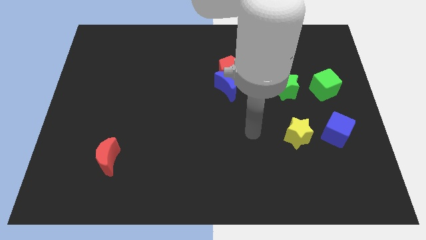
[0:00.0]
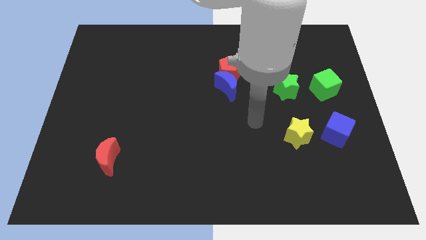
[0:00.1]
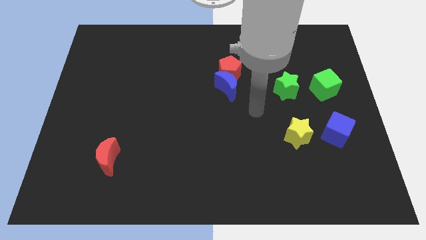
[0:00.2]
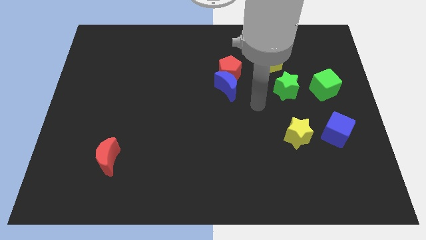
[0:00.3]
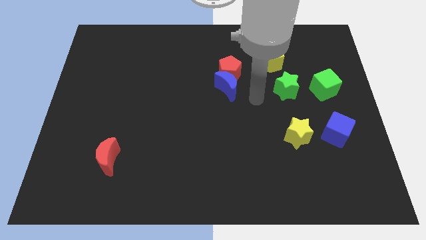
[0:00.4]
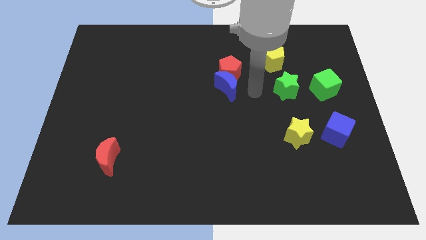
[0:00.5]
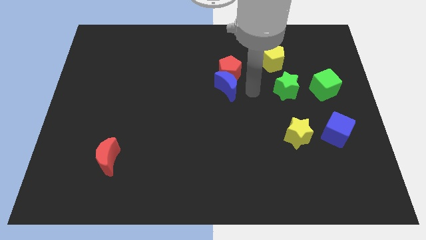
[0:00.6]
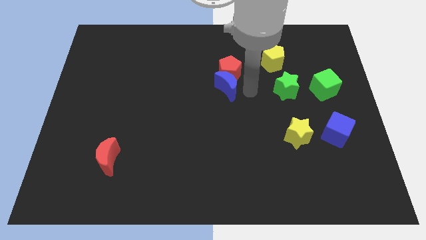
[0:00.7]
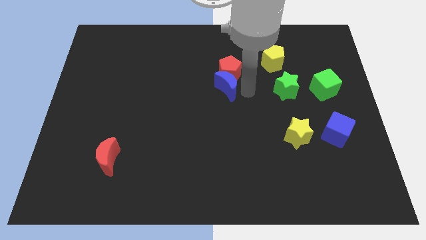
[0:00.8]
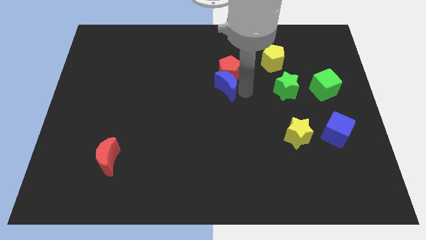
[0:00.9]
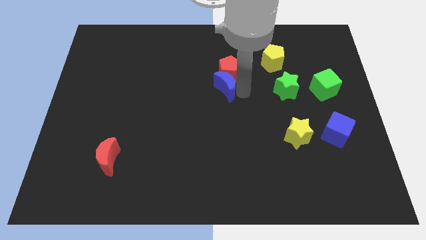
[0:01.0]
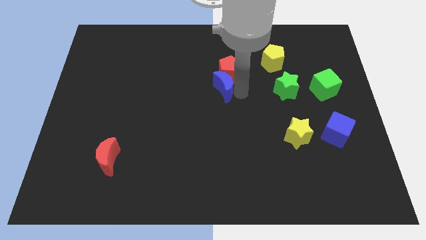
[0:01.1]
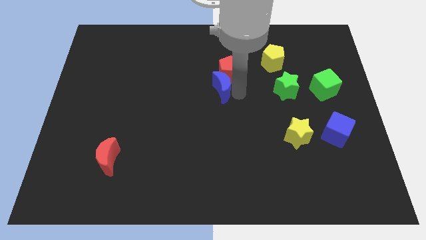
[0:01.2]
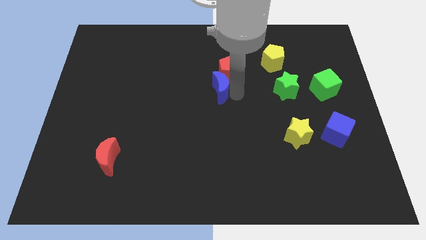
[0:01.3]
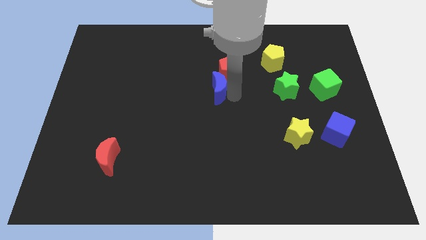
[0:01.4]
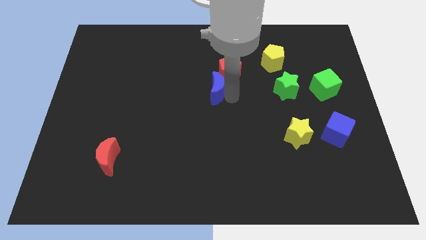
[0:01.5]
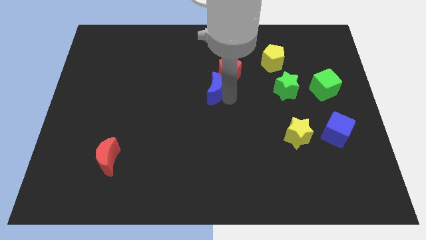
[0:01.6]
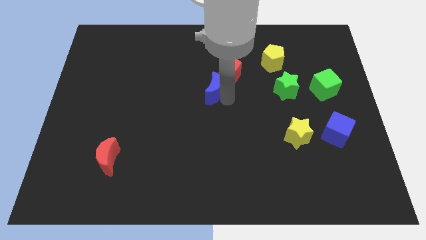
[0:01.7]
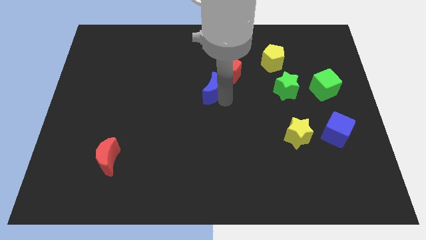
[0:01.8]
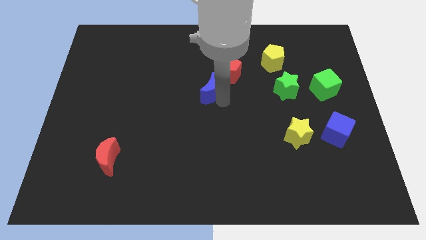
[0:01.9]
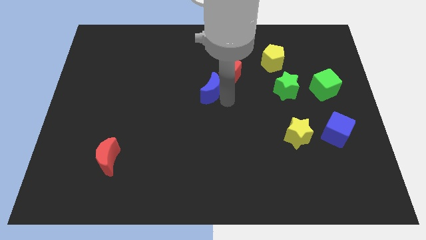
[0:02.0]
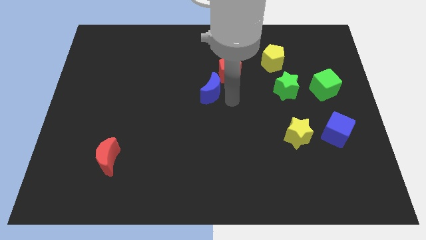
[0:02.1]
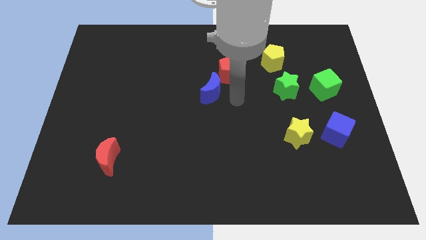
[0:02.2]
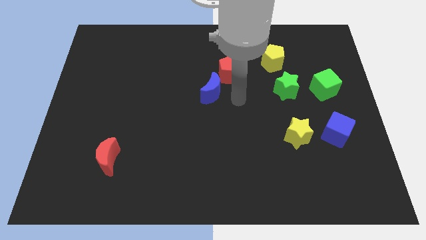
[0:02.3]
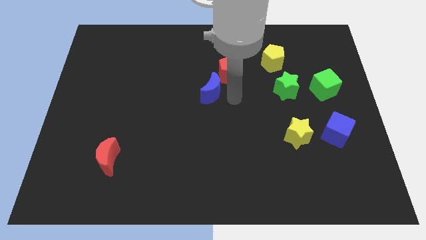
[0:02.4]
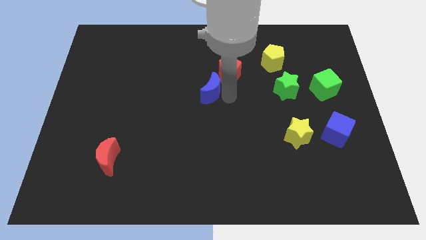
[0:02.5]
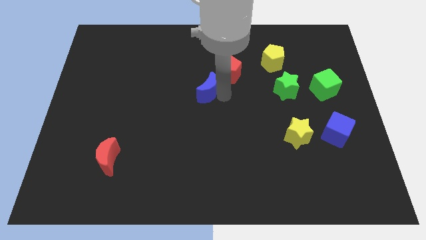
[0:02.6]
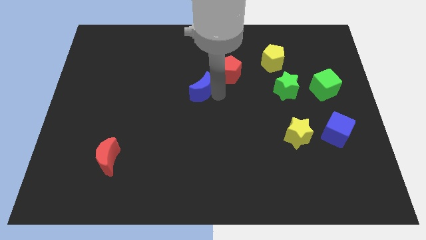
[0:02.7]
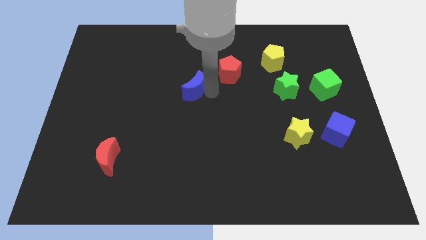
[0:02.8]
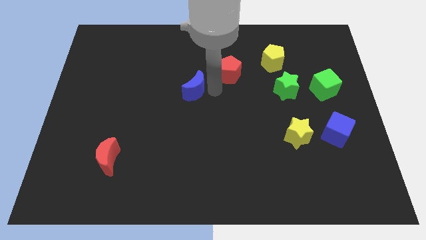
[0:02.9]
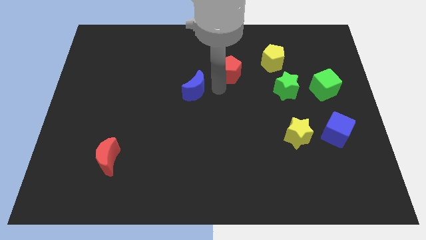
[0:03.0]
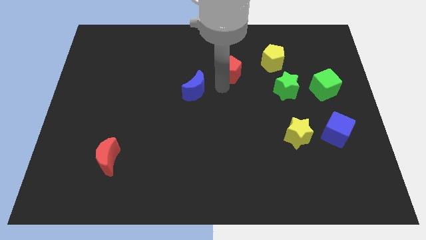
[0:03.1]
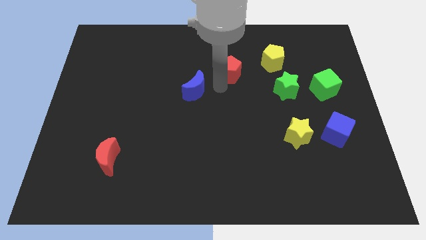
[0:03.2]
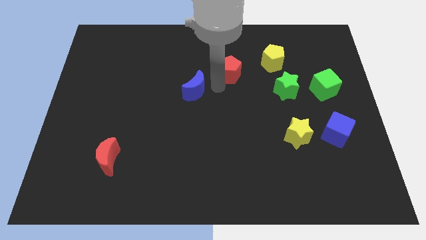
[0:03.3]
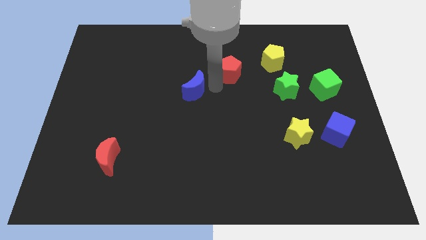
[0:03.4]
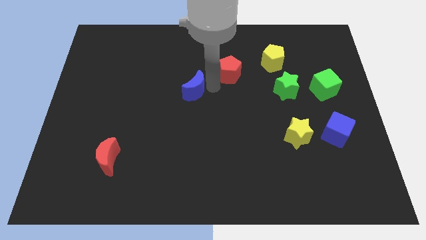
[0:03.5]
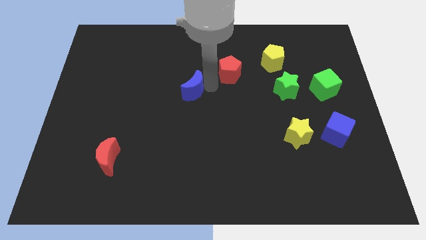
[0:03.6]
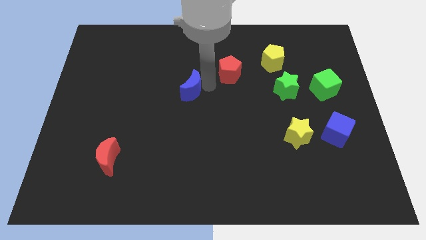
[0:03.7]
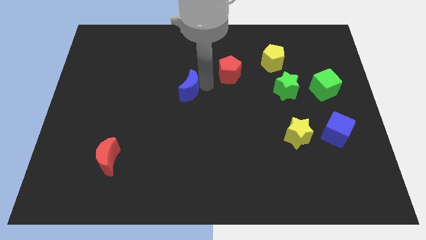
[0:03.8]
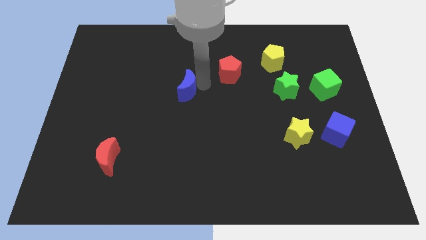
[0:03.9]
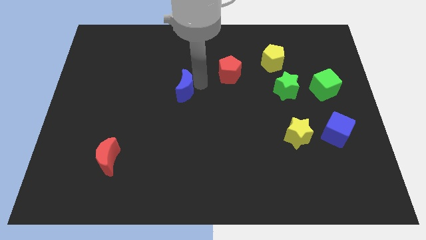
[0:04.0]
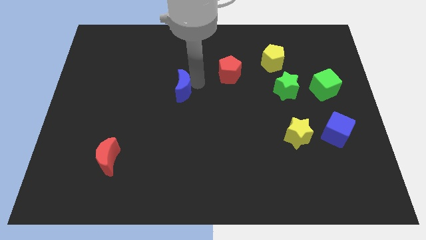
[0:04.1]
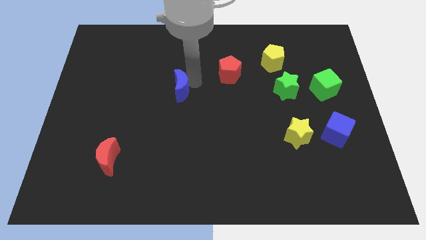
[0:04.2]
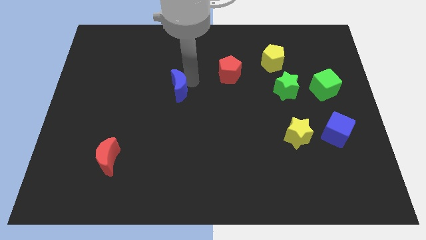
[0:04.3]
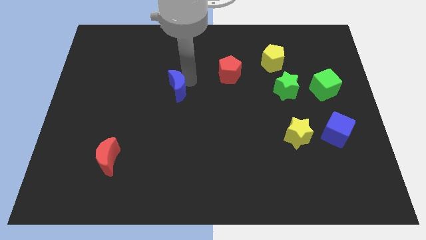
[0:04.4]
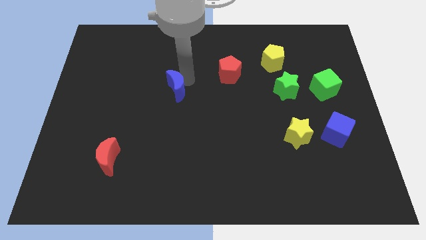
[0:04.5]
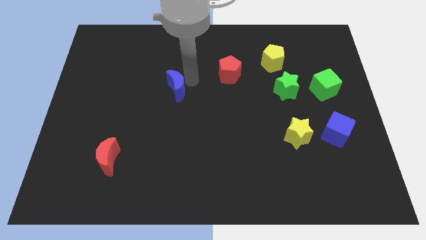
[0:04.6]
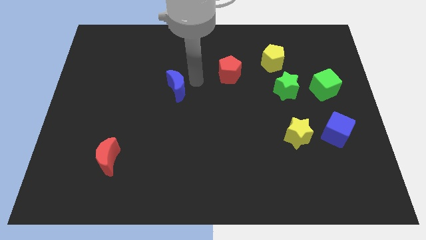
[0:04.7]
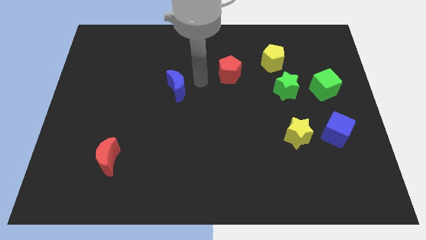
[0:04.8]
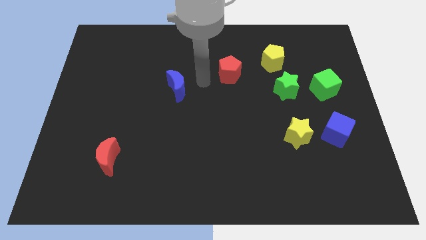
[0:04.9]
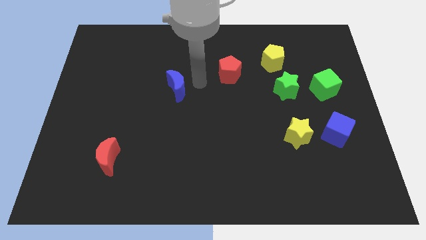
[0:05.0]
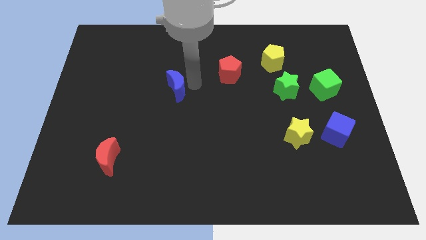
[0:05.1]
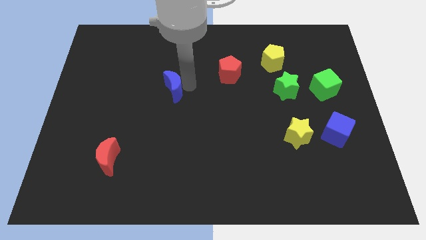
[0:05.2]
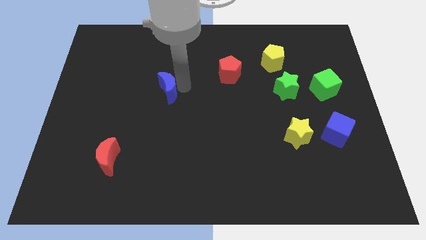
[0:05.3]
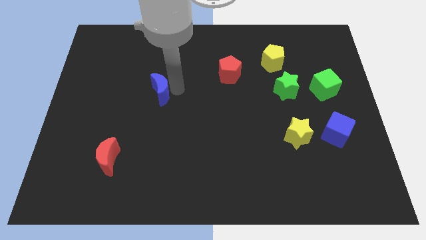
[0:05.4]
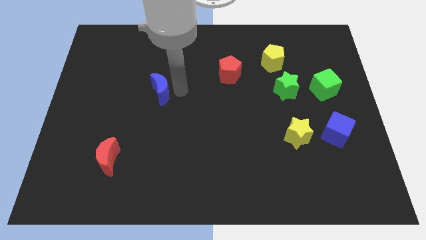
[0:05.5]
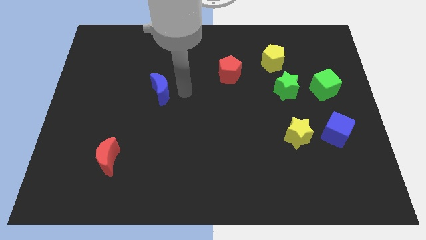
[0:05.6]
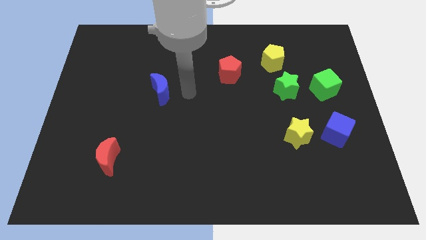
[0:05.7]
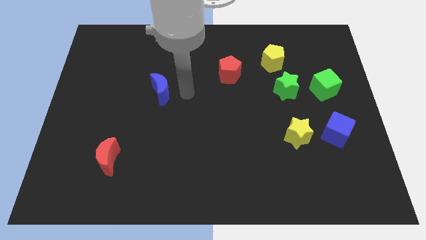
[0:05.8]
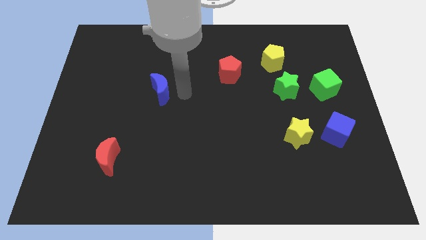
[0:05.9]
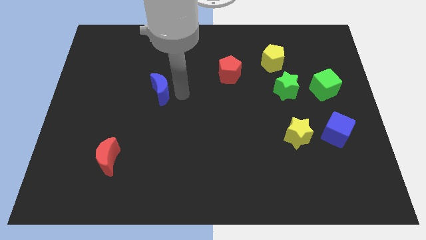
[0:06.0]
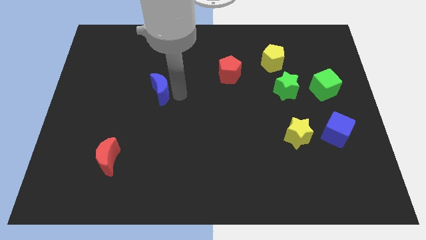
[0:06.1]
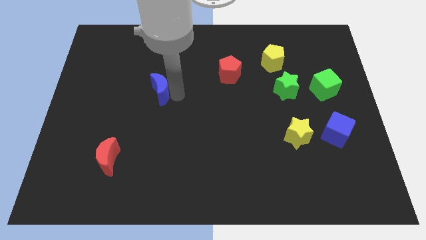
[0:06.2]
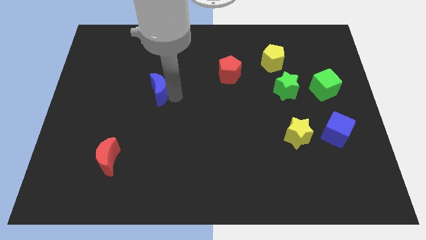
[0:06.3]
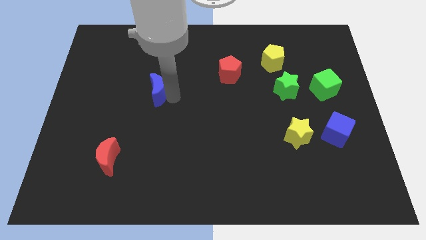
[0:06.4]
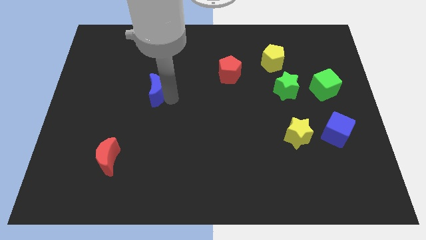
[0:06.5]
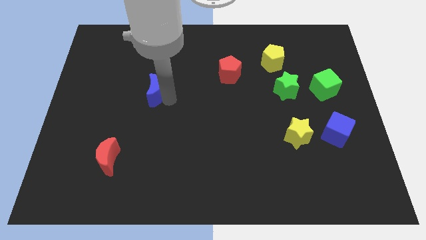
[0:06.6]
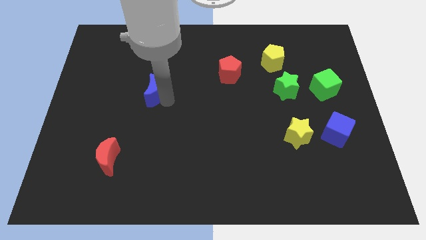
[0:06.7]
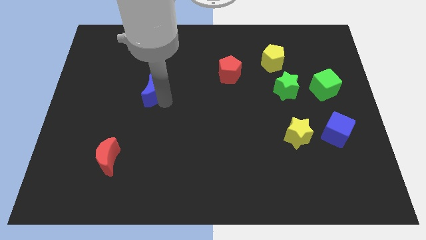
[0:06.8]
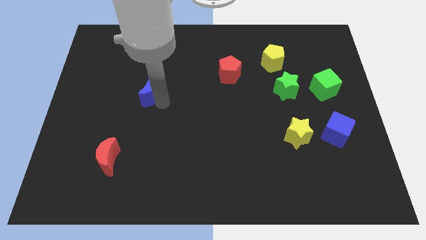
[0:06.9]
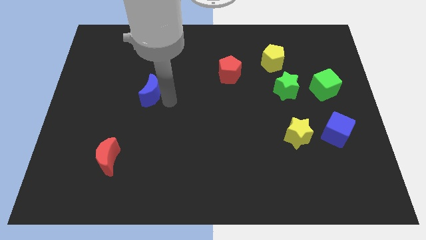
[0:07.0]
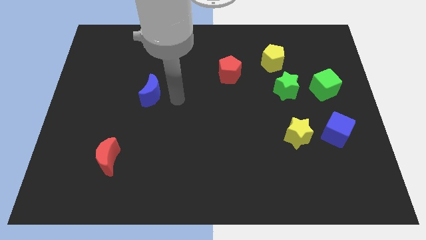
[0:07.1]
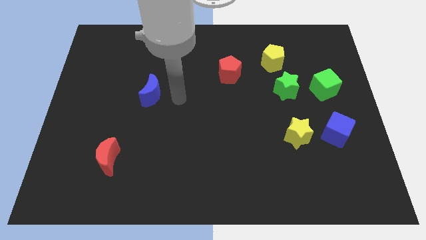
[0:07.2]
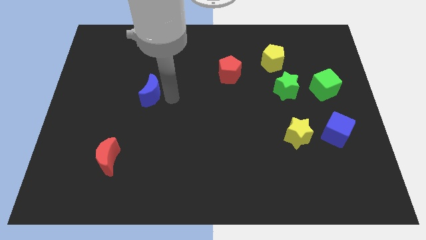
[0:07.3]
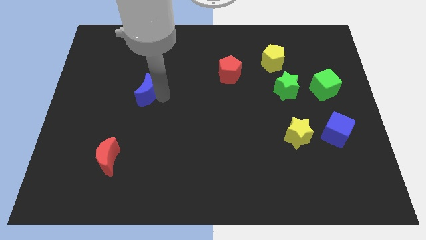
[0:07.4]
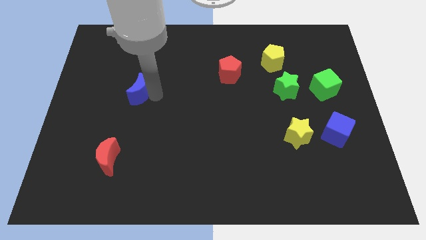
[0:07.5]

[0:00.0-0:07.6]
push the blue moon to the left

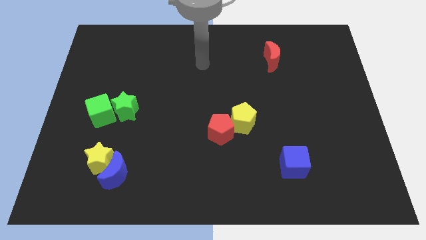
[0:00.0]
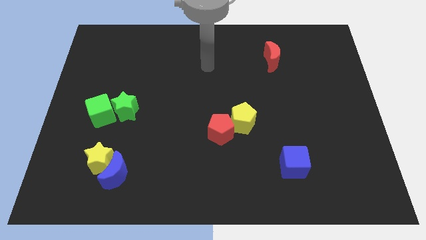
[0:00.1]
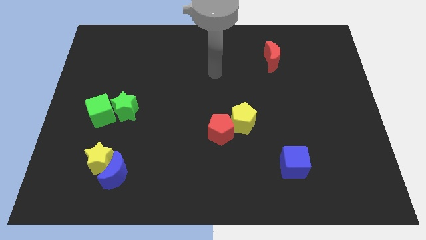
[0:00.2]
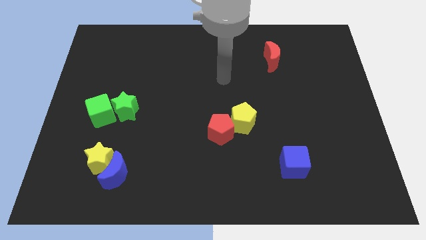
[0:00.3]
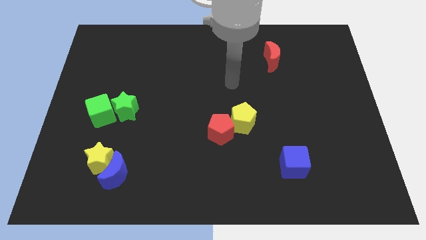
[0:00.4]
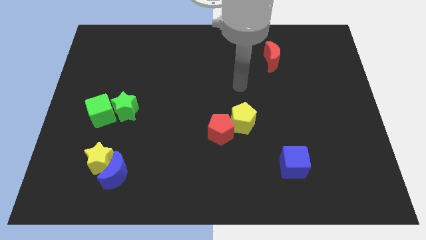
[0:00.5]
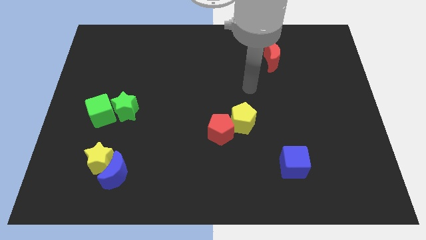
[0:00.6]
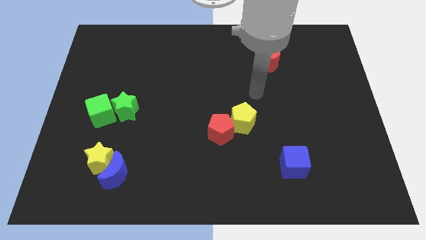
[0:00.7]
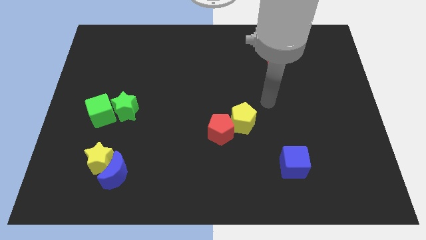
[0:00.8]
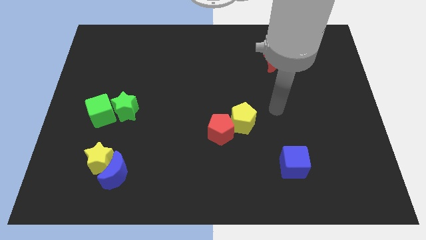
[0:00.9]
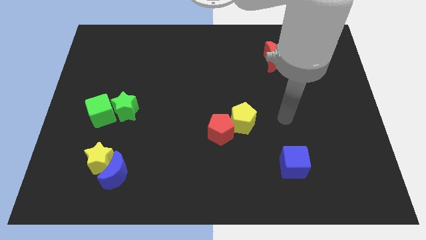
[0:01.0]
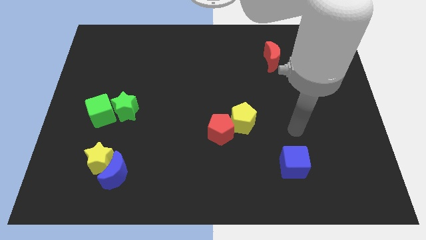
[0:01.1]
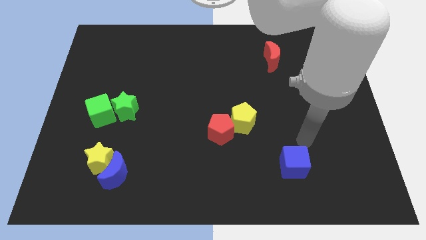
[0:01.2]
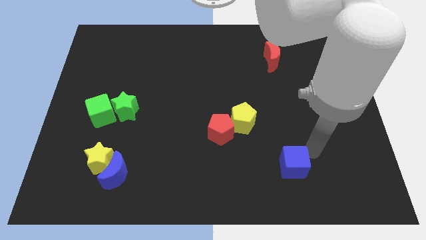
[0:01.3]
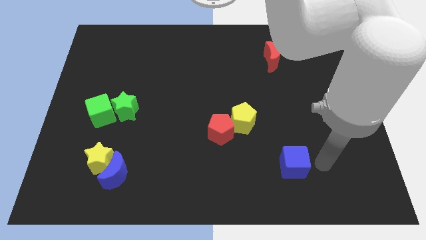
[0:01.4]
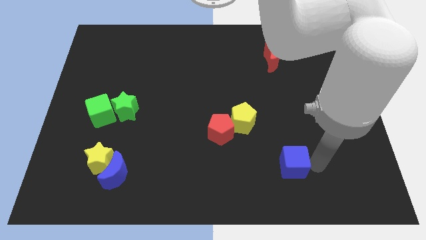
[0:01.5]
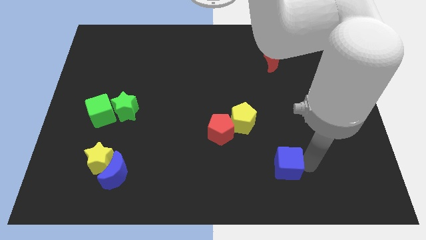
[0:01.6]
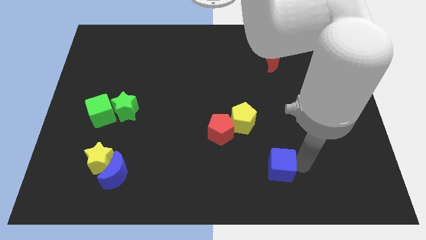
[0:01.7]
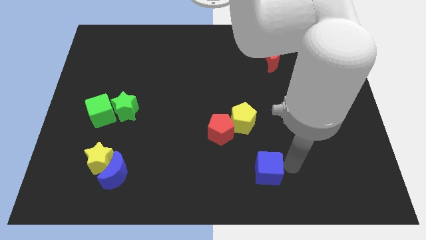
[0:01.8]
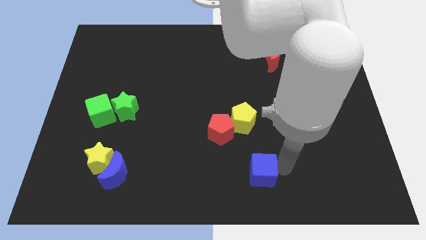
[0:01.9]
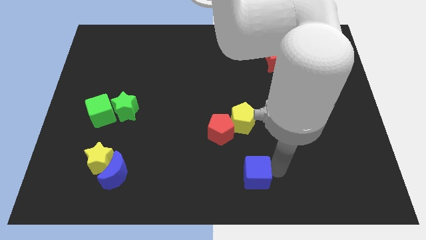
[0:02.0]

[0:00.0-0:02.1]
slightly slide the blue cube left
